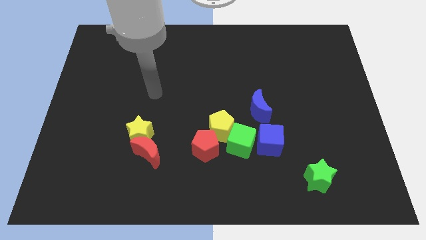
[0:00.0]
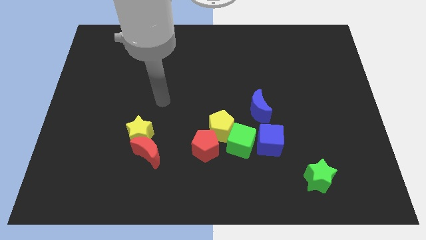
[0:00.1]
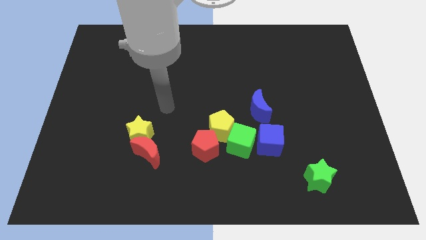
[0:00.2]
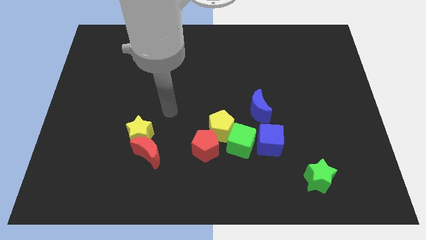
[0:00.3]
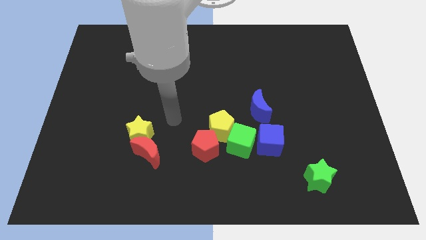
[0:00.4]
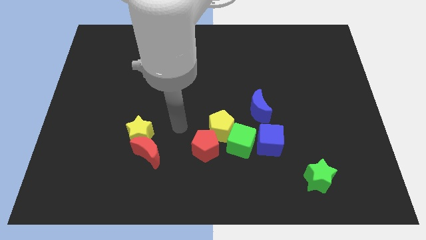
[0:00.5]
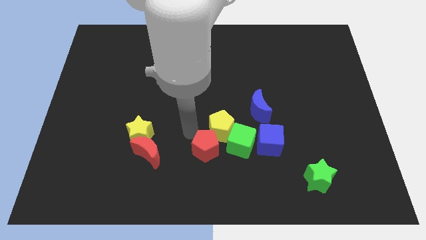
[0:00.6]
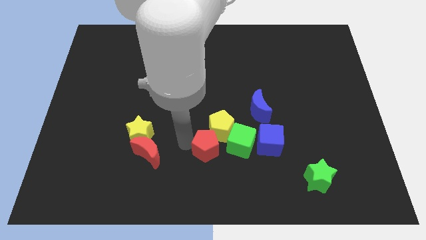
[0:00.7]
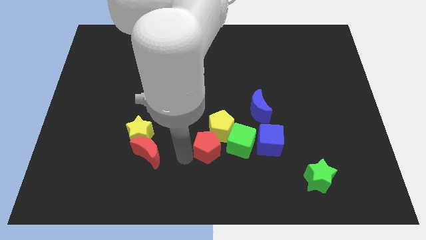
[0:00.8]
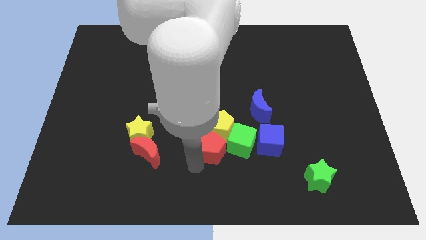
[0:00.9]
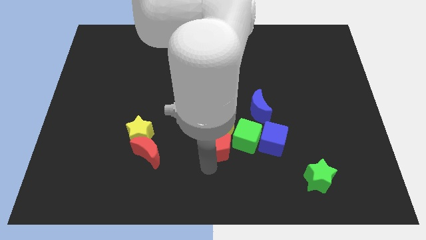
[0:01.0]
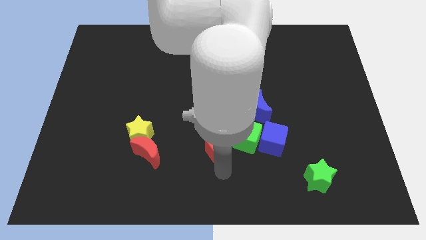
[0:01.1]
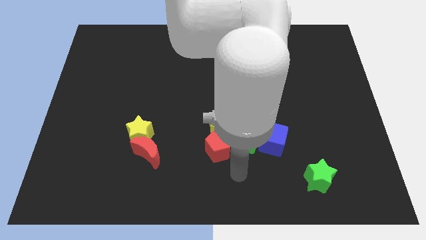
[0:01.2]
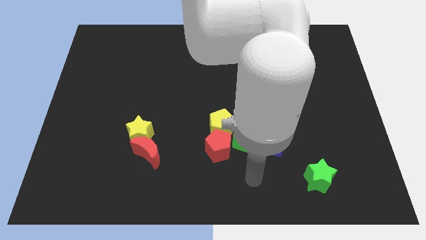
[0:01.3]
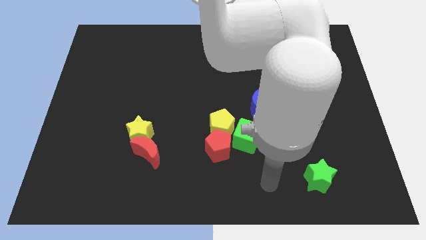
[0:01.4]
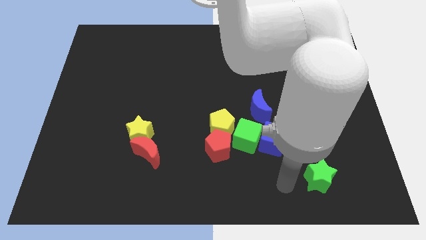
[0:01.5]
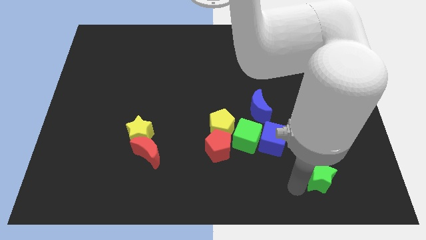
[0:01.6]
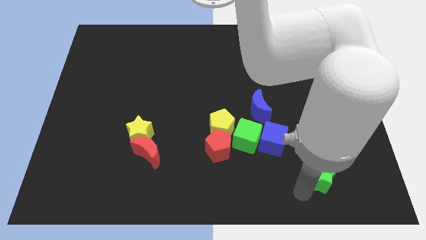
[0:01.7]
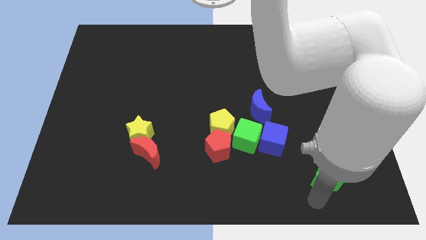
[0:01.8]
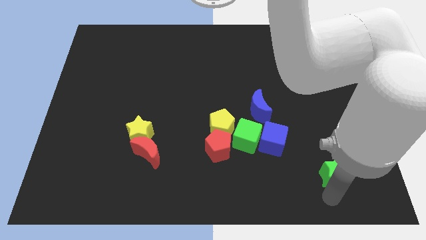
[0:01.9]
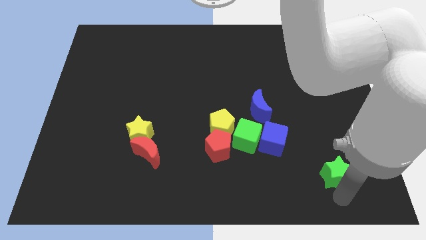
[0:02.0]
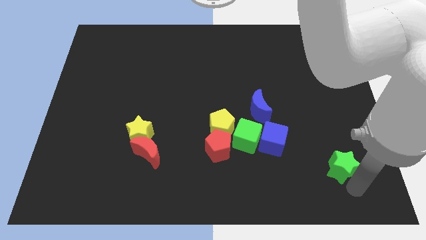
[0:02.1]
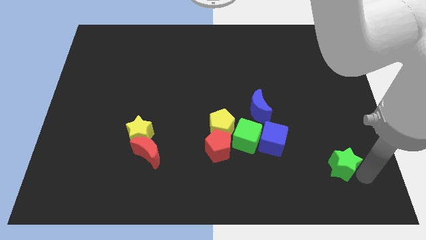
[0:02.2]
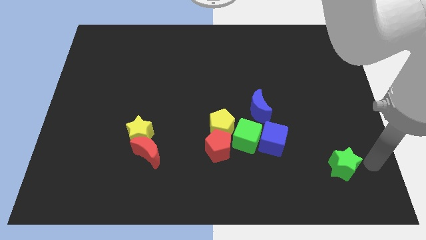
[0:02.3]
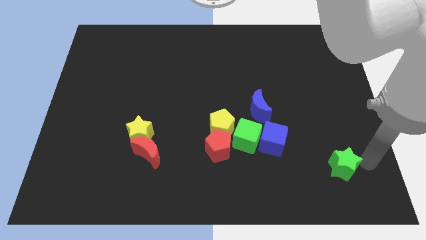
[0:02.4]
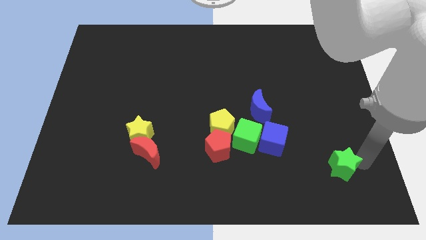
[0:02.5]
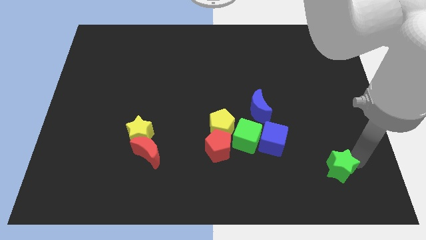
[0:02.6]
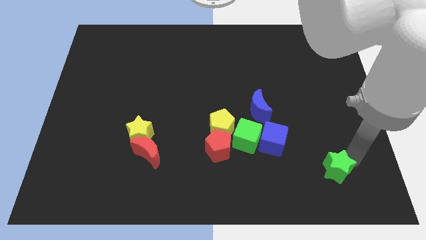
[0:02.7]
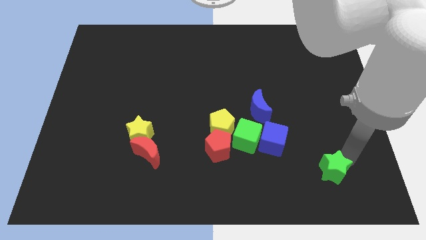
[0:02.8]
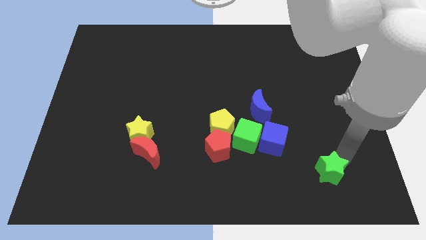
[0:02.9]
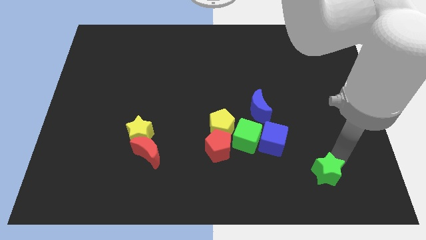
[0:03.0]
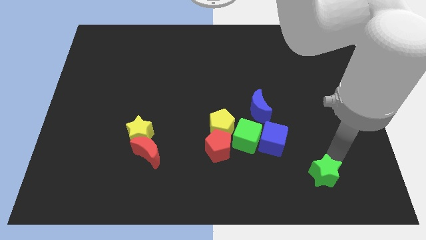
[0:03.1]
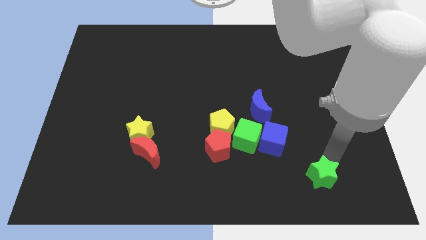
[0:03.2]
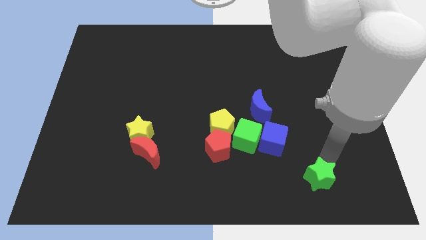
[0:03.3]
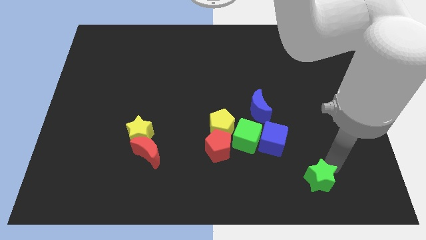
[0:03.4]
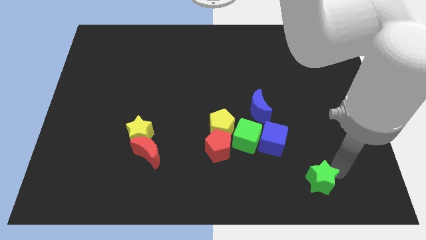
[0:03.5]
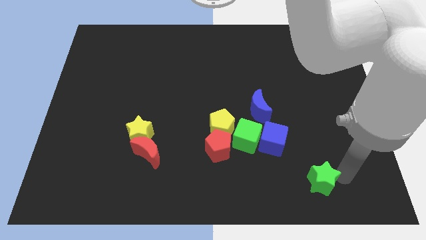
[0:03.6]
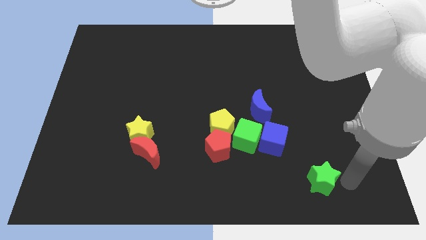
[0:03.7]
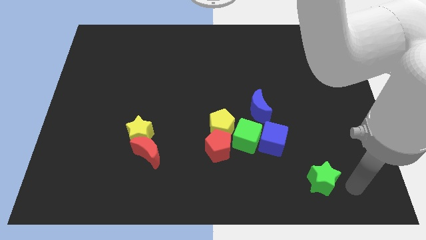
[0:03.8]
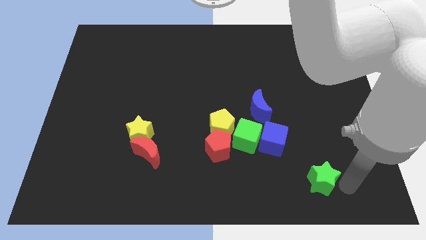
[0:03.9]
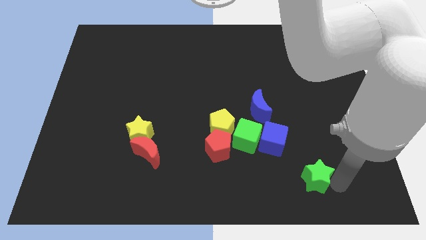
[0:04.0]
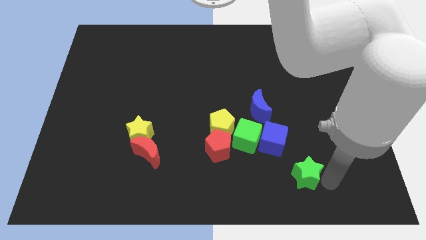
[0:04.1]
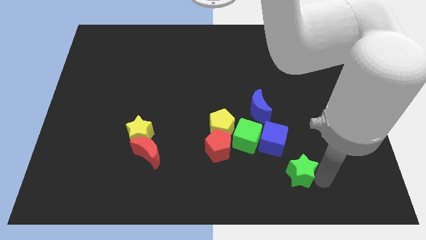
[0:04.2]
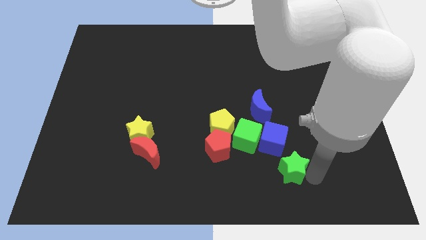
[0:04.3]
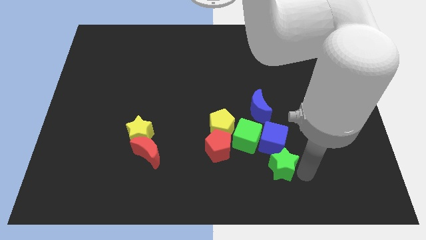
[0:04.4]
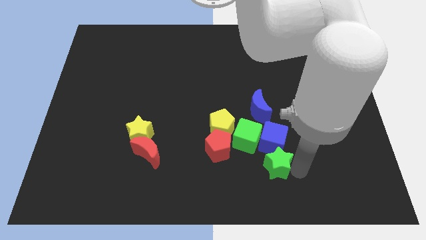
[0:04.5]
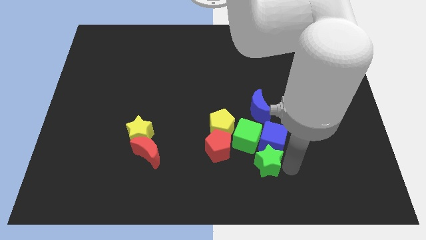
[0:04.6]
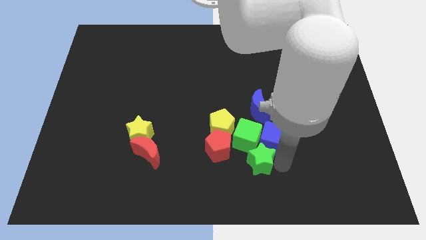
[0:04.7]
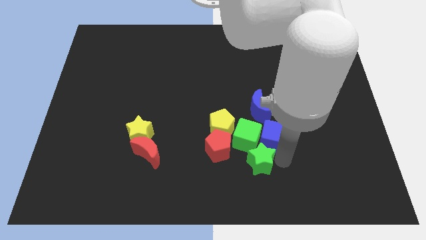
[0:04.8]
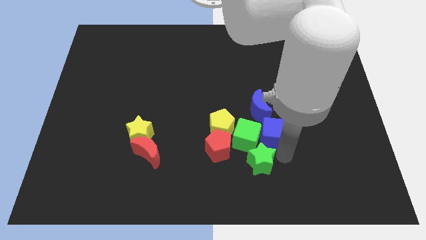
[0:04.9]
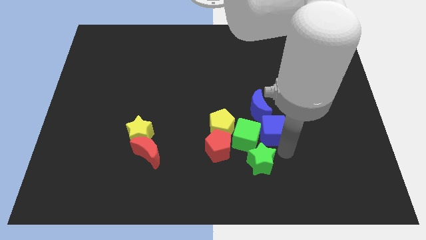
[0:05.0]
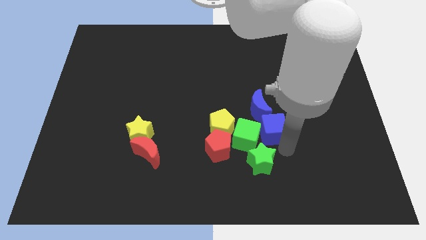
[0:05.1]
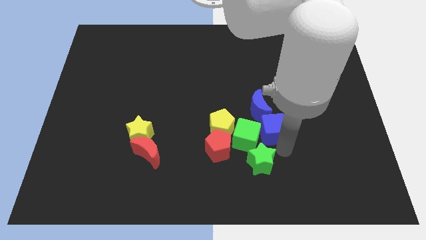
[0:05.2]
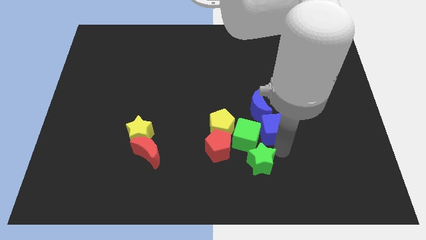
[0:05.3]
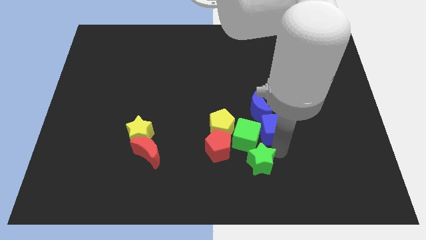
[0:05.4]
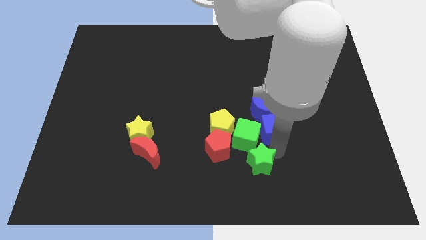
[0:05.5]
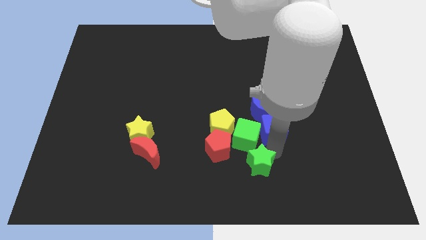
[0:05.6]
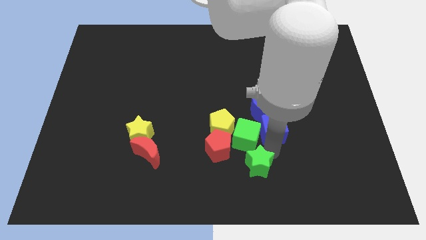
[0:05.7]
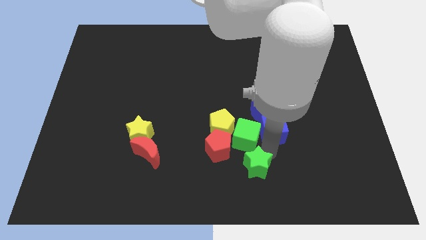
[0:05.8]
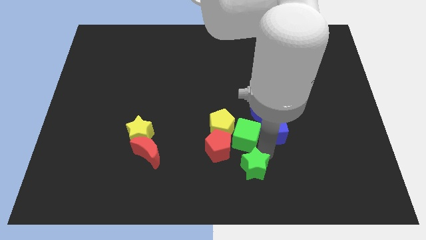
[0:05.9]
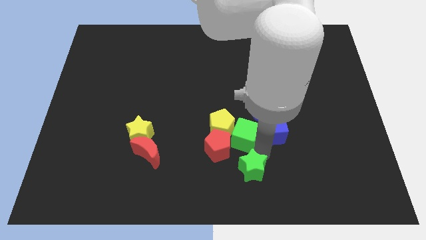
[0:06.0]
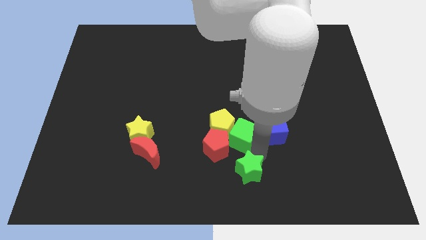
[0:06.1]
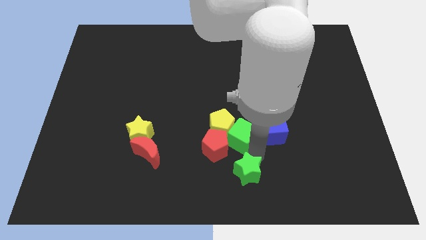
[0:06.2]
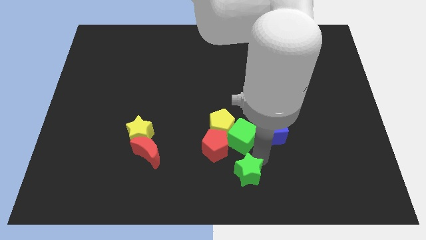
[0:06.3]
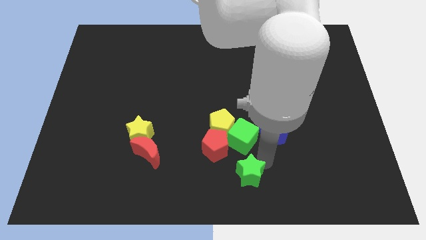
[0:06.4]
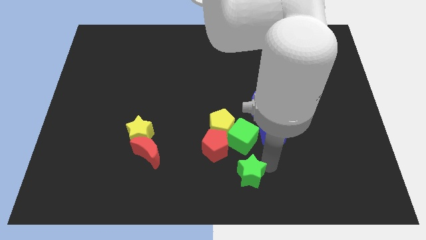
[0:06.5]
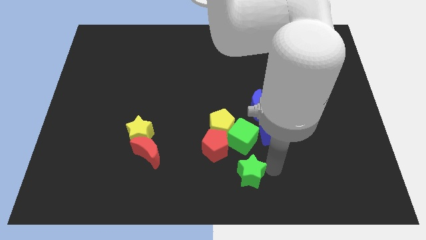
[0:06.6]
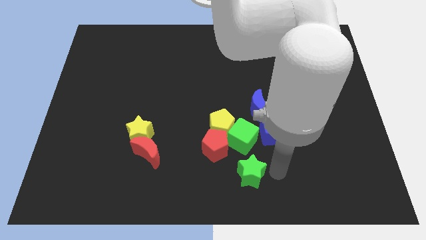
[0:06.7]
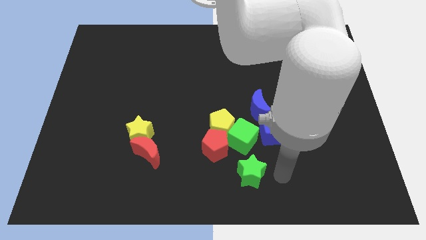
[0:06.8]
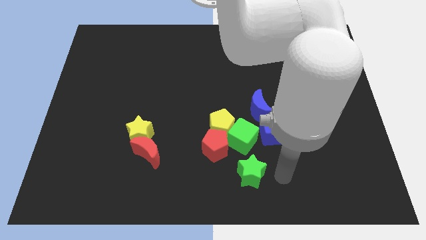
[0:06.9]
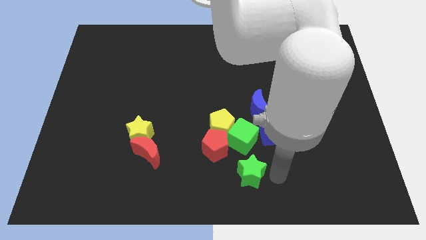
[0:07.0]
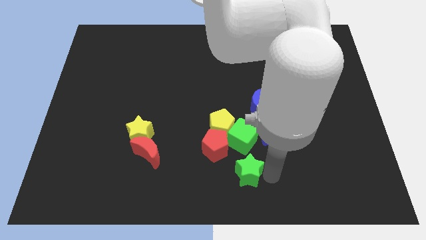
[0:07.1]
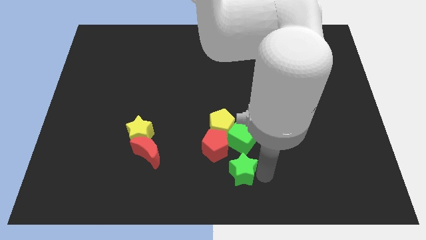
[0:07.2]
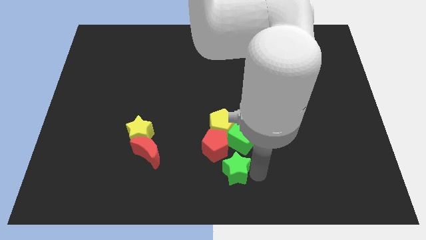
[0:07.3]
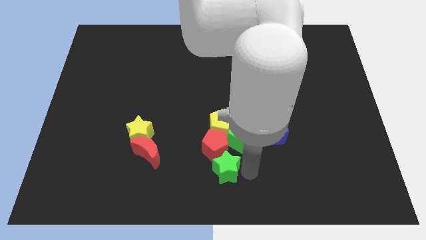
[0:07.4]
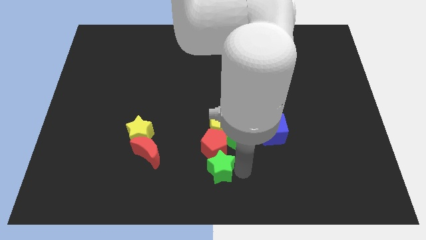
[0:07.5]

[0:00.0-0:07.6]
move the green star to the left

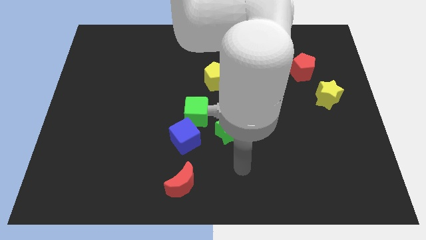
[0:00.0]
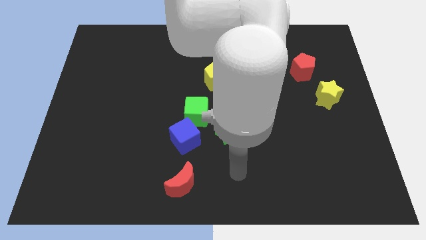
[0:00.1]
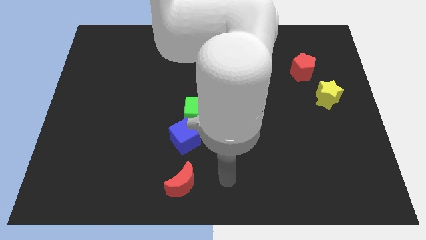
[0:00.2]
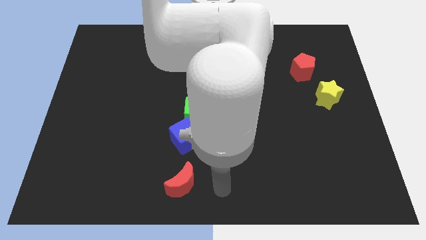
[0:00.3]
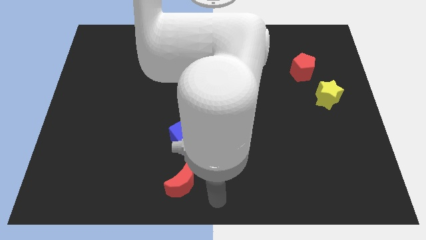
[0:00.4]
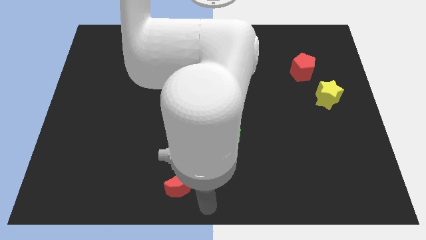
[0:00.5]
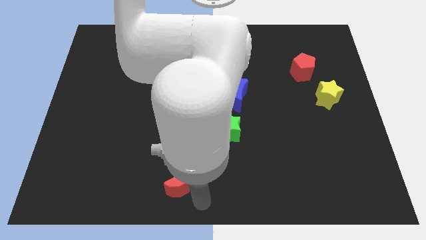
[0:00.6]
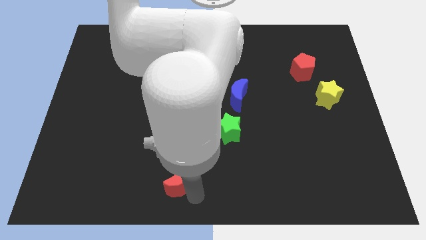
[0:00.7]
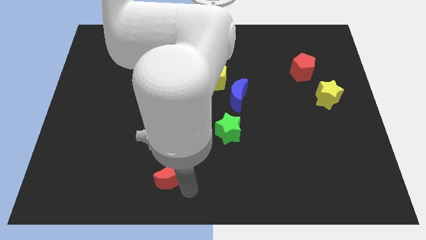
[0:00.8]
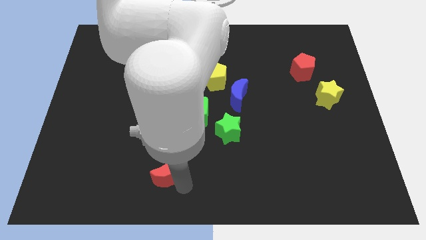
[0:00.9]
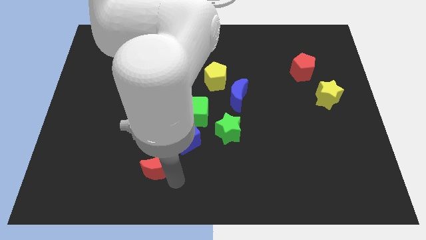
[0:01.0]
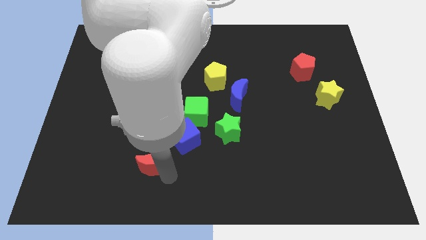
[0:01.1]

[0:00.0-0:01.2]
slightly slide the red moon up and then to the left
